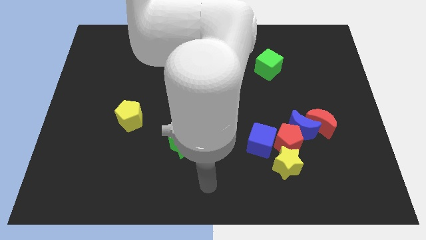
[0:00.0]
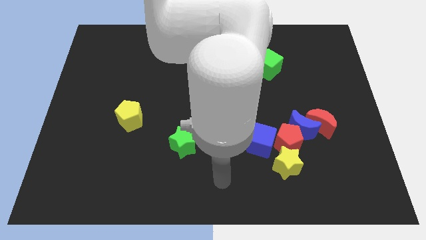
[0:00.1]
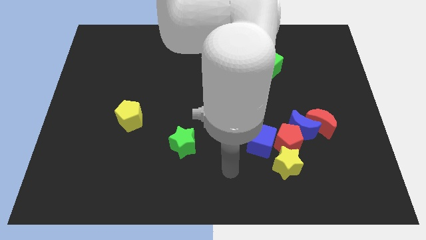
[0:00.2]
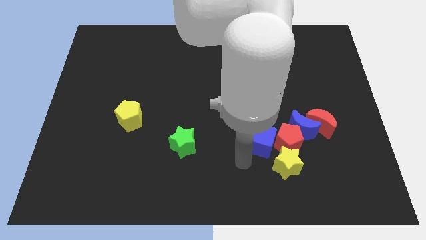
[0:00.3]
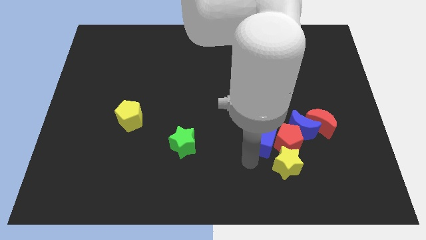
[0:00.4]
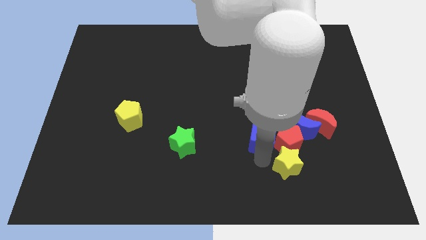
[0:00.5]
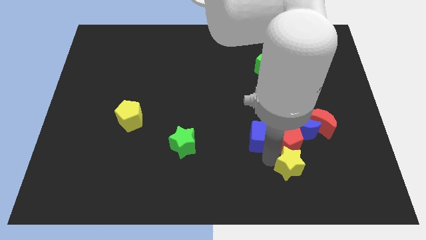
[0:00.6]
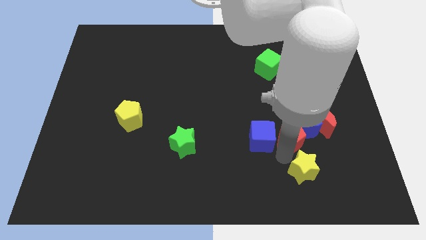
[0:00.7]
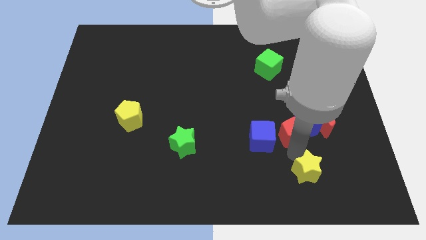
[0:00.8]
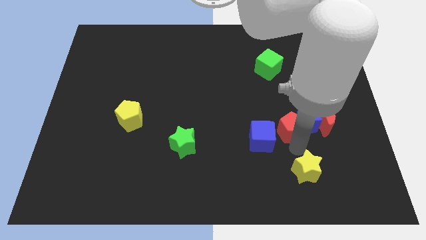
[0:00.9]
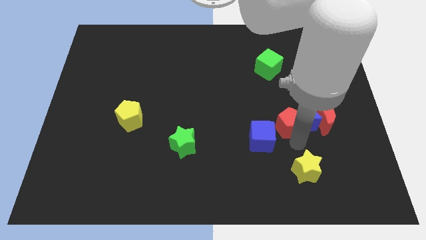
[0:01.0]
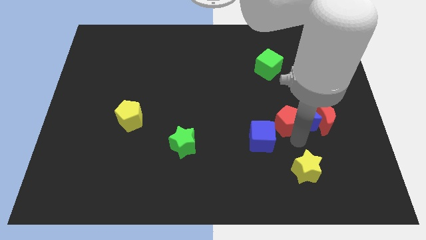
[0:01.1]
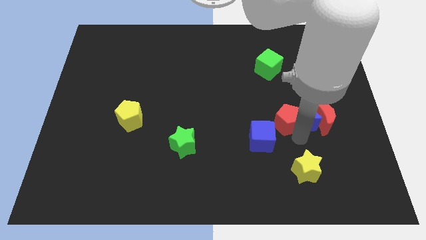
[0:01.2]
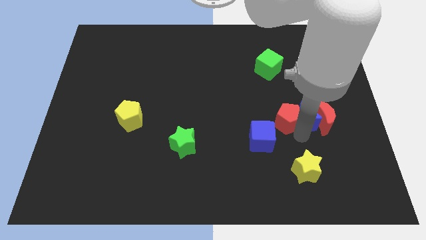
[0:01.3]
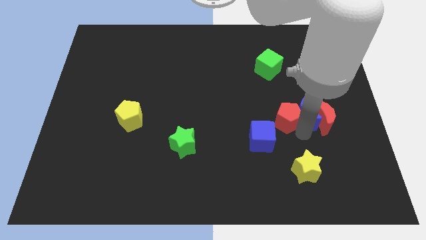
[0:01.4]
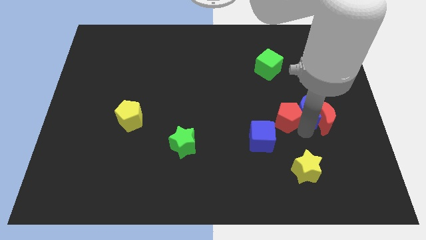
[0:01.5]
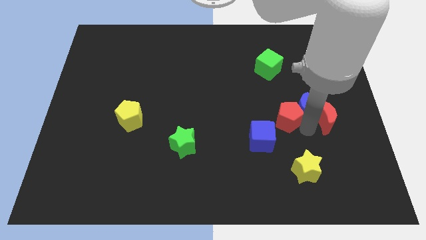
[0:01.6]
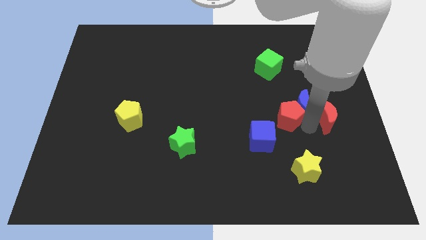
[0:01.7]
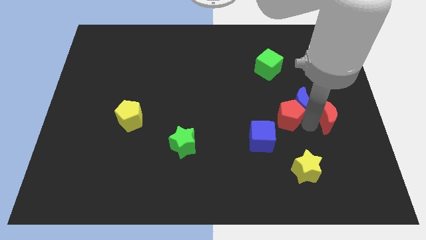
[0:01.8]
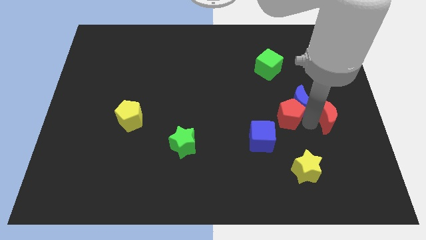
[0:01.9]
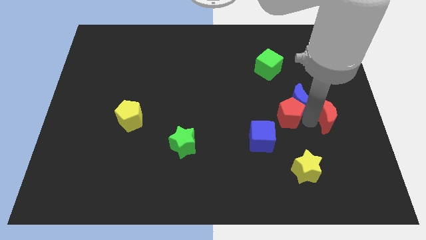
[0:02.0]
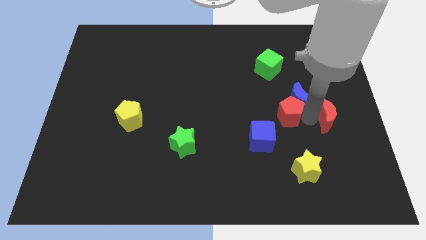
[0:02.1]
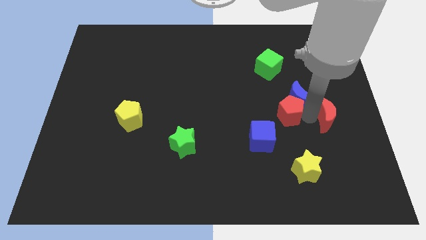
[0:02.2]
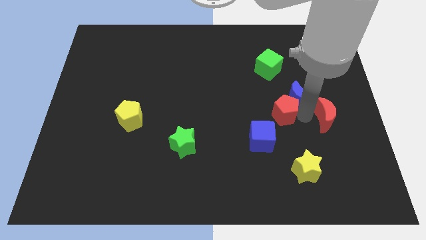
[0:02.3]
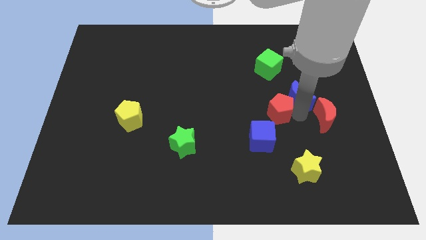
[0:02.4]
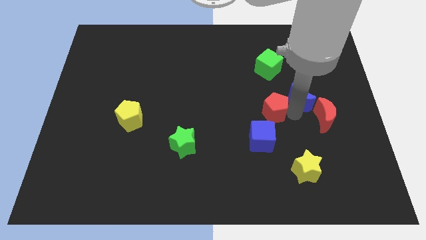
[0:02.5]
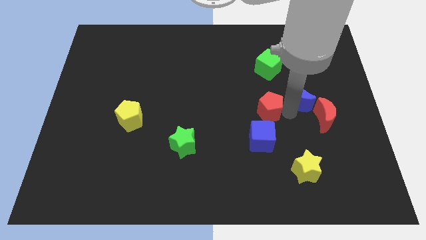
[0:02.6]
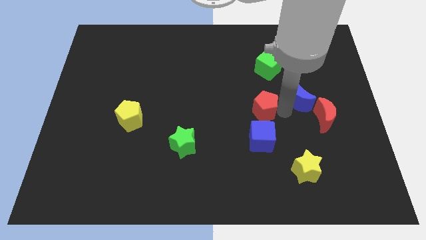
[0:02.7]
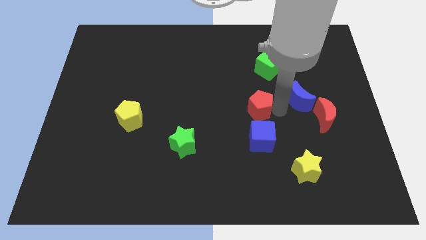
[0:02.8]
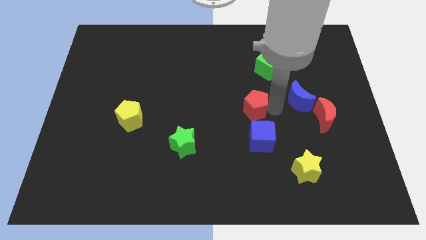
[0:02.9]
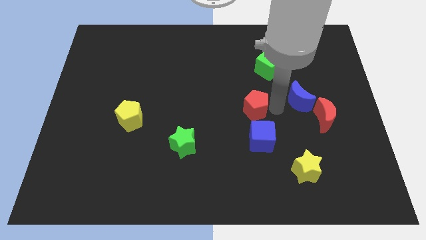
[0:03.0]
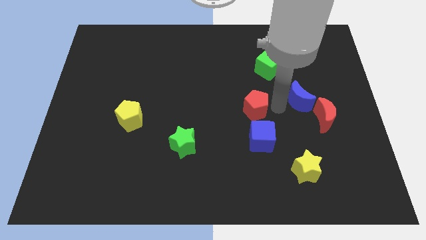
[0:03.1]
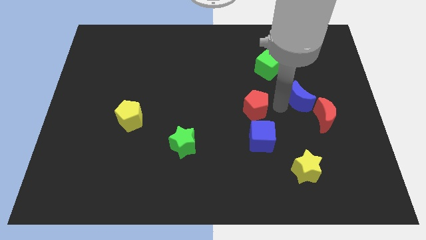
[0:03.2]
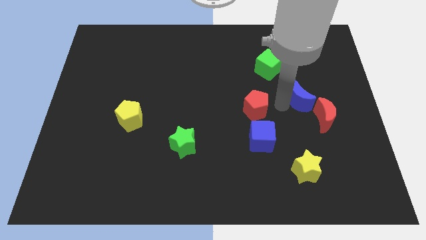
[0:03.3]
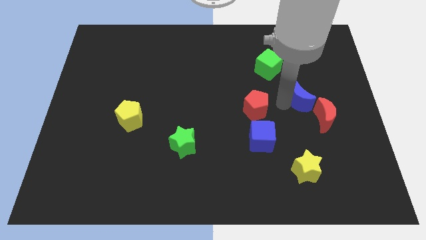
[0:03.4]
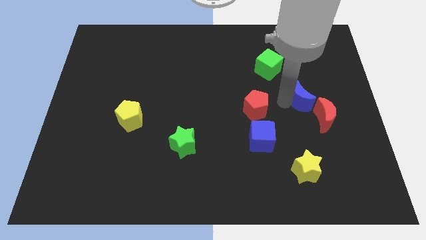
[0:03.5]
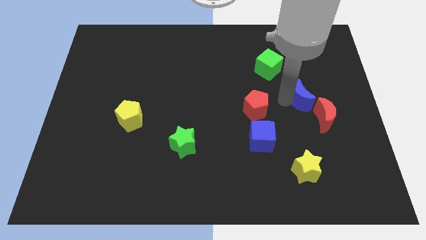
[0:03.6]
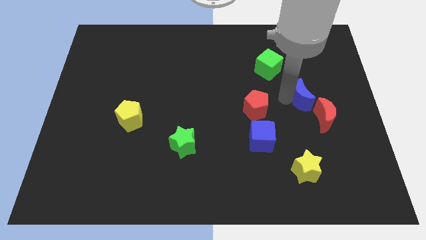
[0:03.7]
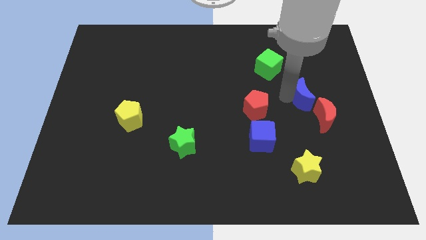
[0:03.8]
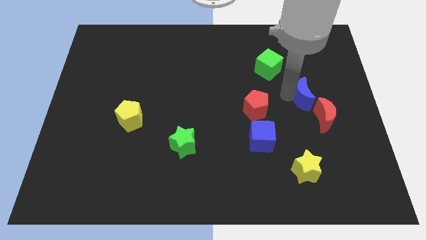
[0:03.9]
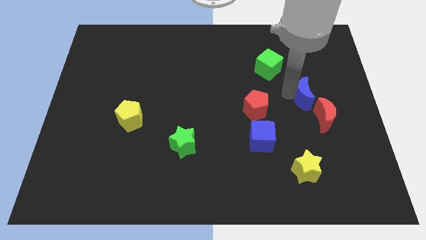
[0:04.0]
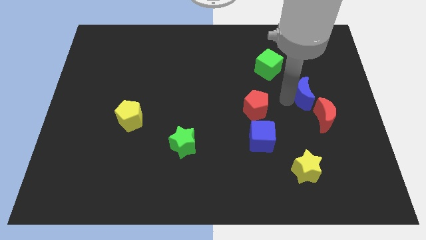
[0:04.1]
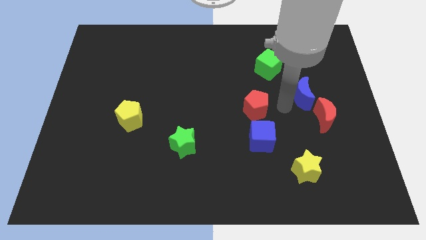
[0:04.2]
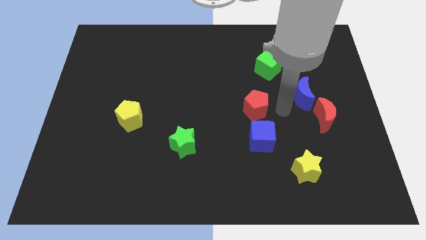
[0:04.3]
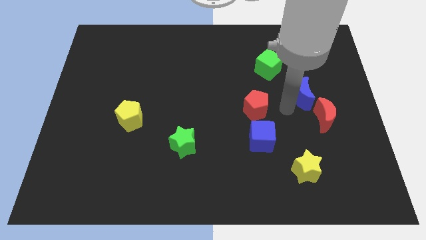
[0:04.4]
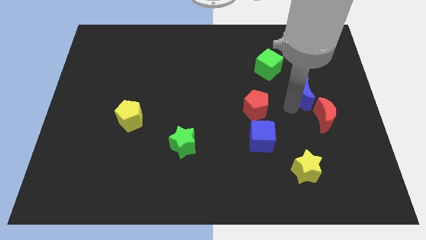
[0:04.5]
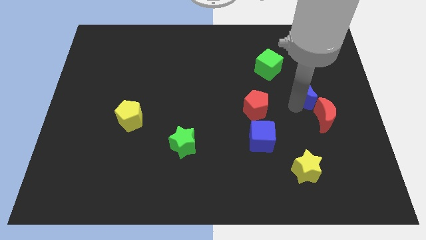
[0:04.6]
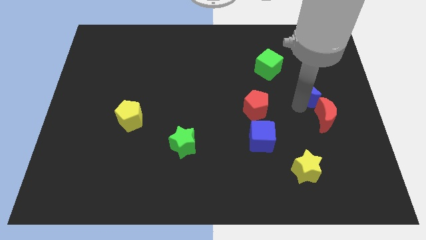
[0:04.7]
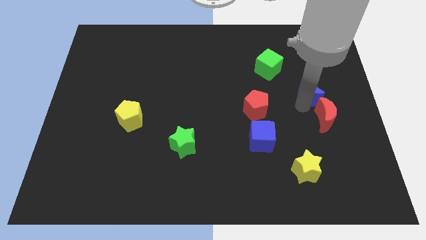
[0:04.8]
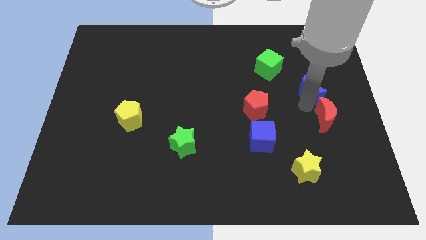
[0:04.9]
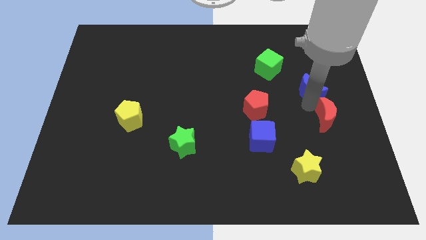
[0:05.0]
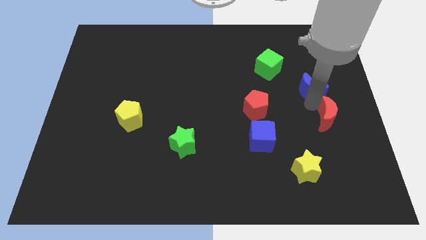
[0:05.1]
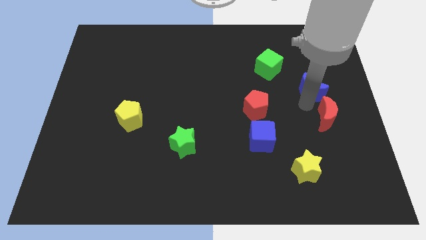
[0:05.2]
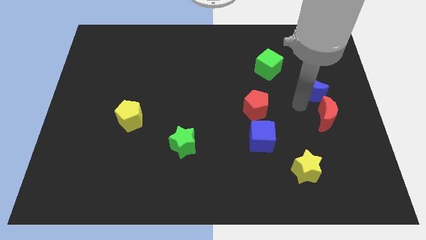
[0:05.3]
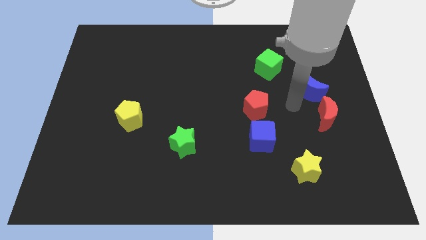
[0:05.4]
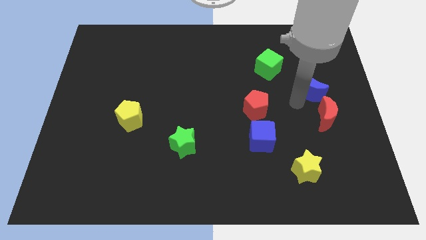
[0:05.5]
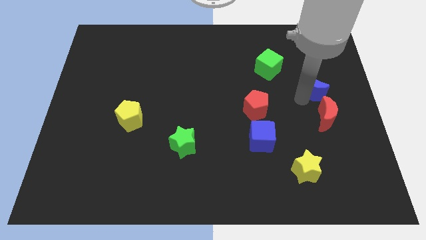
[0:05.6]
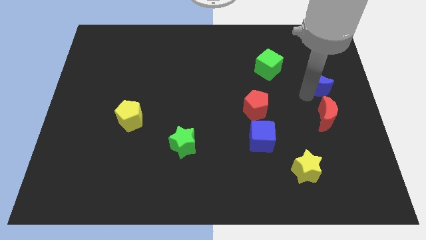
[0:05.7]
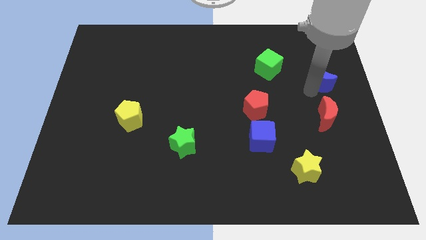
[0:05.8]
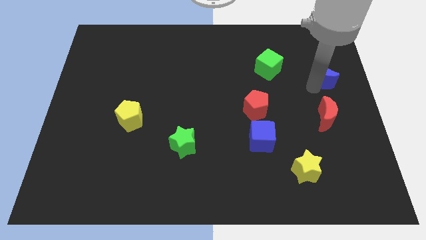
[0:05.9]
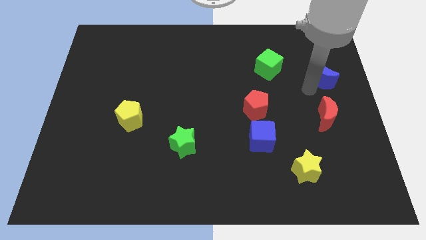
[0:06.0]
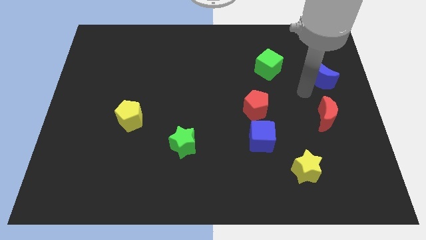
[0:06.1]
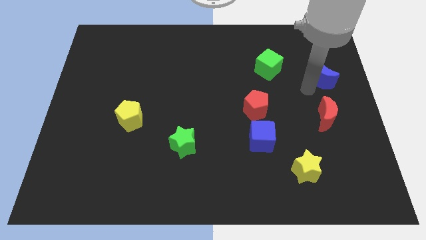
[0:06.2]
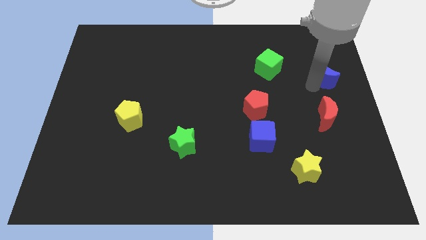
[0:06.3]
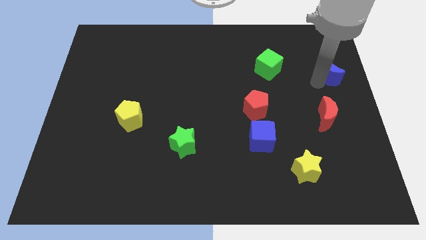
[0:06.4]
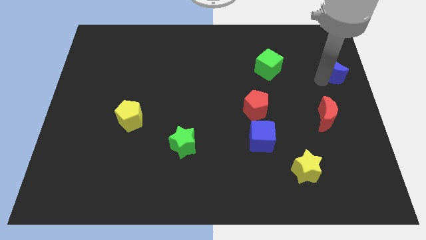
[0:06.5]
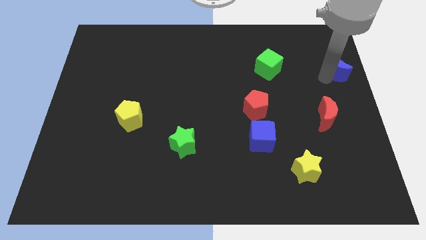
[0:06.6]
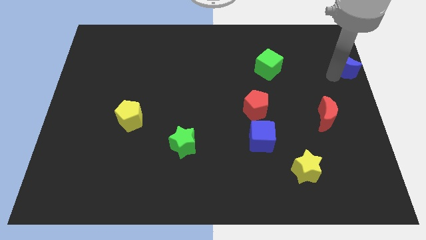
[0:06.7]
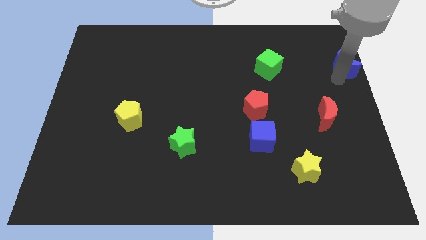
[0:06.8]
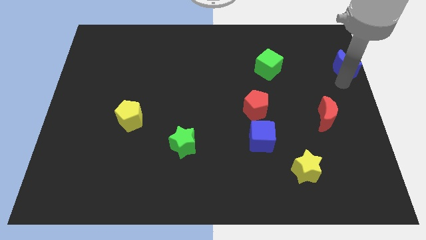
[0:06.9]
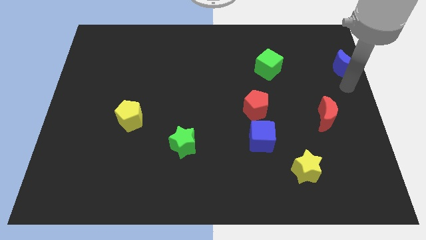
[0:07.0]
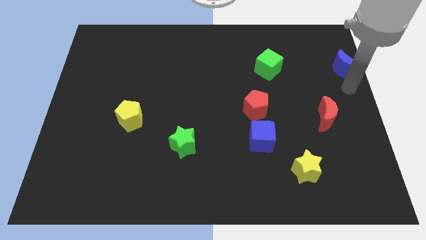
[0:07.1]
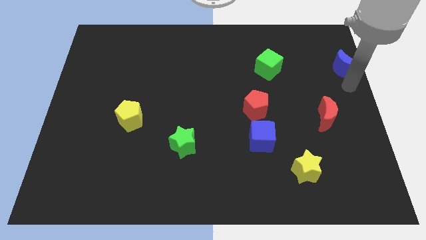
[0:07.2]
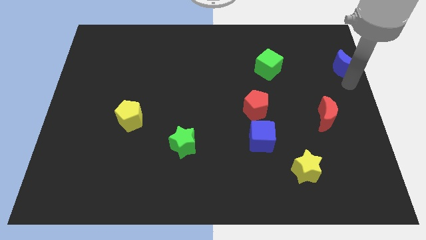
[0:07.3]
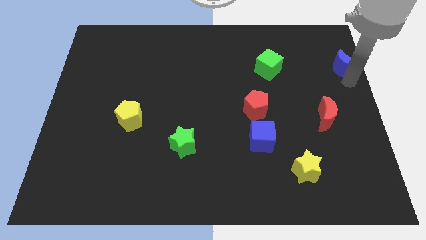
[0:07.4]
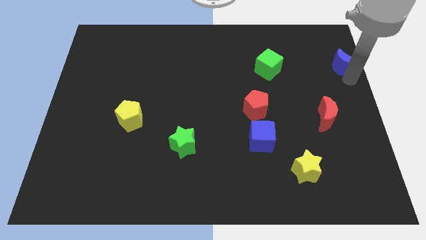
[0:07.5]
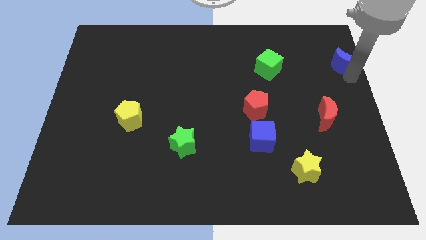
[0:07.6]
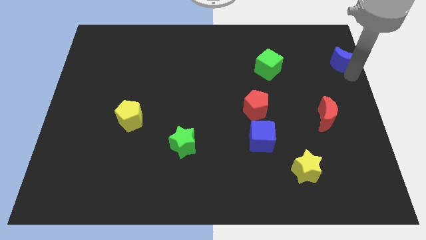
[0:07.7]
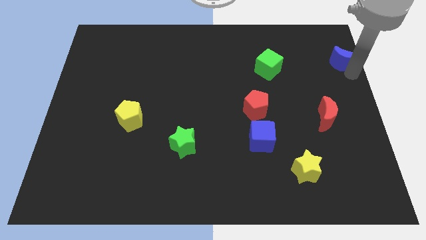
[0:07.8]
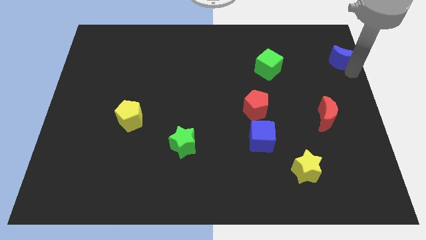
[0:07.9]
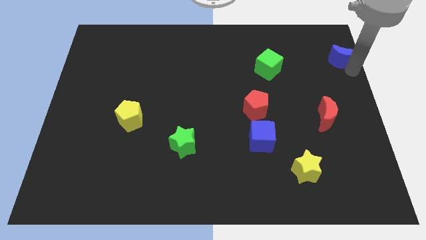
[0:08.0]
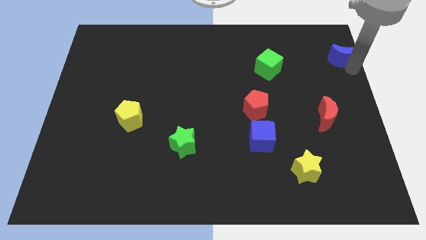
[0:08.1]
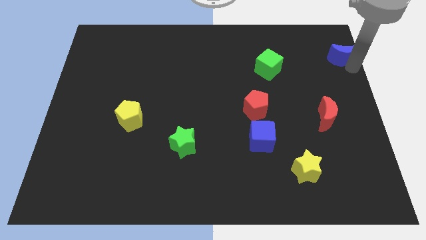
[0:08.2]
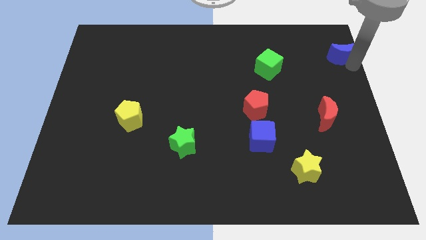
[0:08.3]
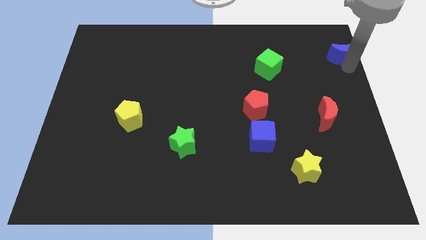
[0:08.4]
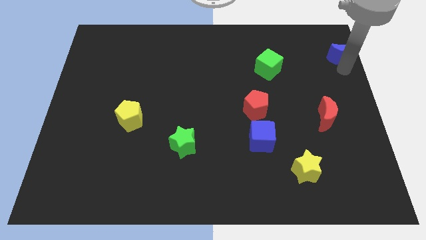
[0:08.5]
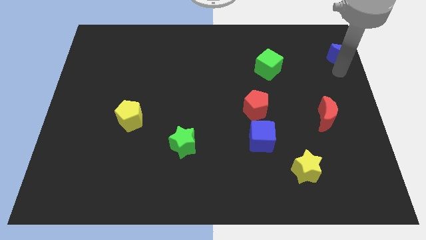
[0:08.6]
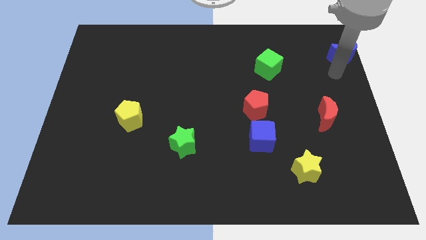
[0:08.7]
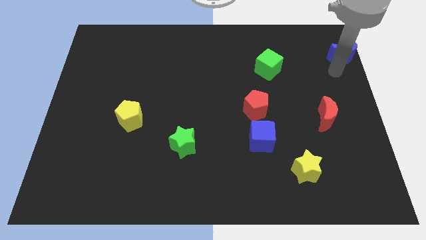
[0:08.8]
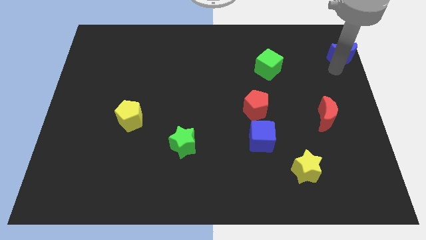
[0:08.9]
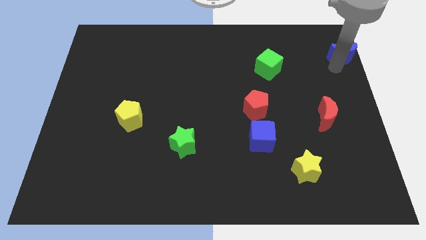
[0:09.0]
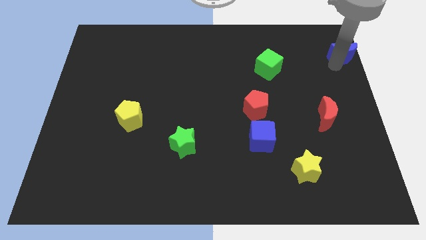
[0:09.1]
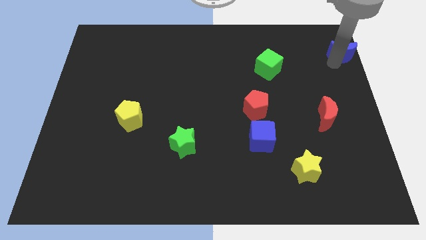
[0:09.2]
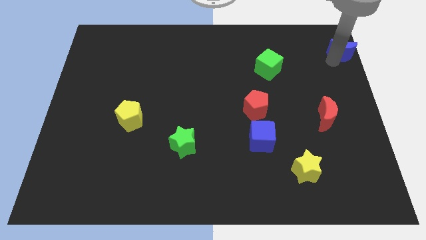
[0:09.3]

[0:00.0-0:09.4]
push the blue moon to the top right
